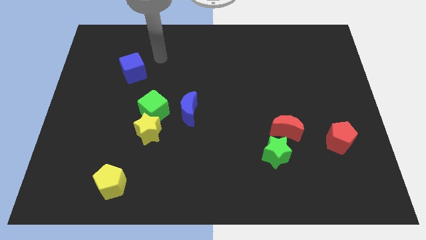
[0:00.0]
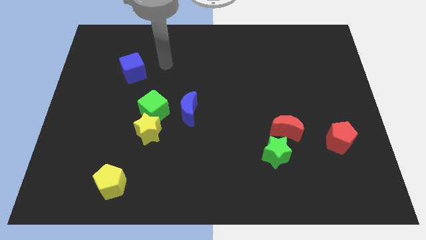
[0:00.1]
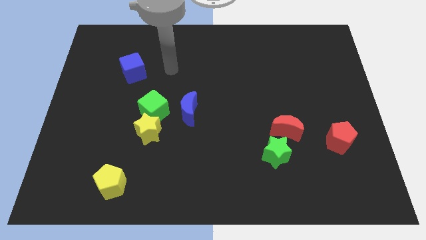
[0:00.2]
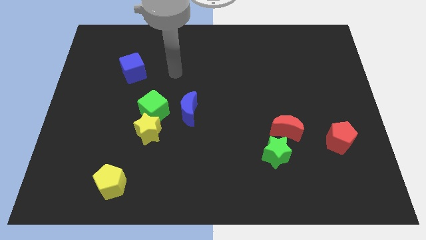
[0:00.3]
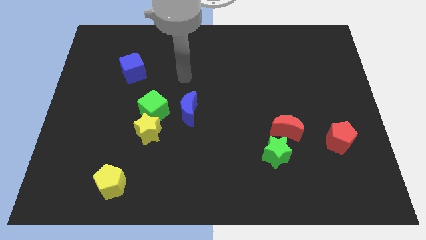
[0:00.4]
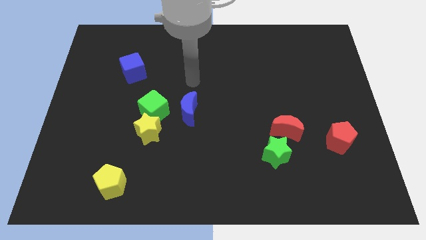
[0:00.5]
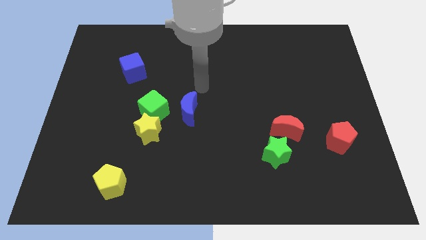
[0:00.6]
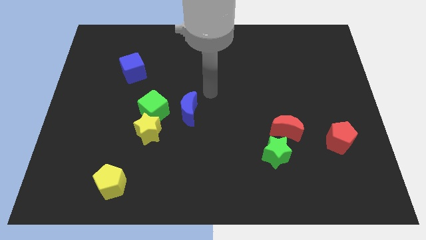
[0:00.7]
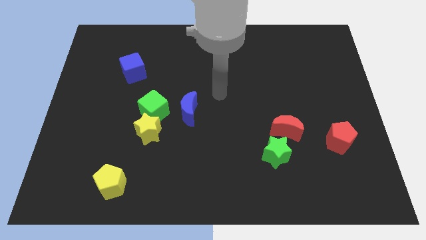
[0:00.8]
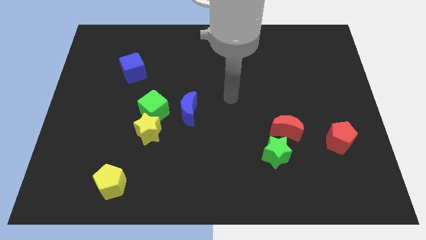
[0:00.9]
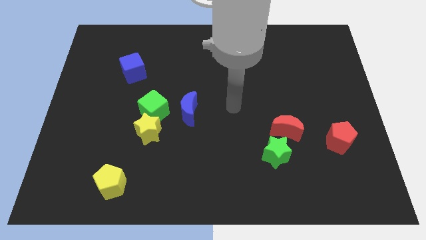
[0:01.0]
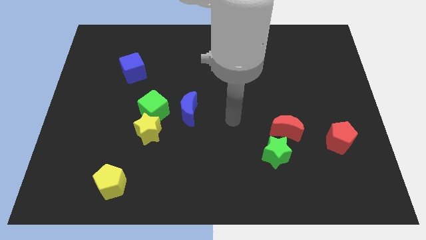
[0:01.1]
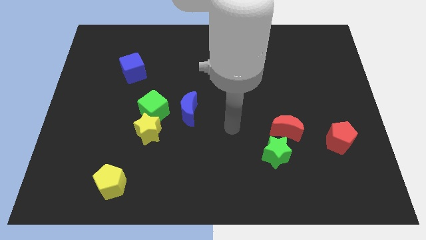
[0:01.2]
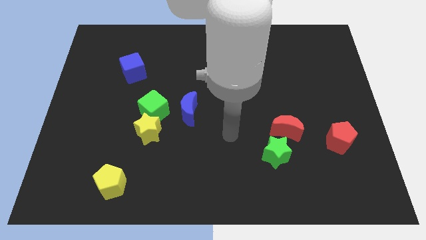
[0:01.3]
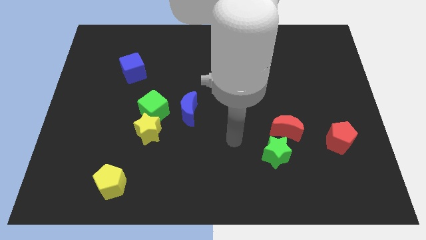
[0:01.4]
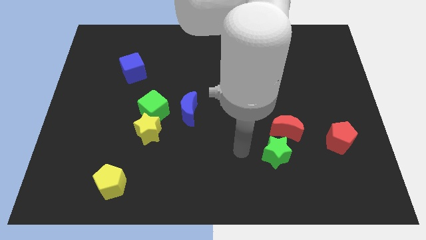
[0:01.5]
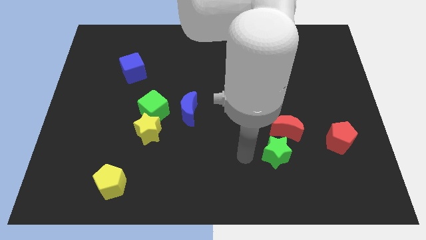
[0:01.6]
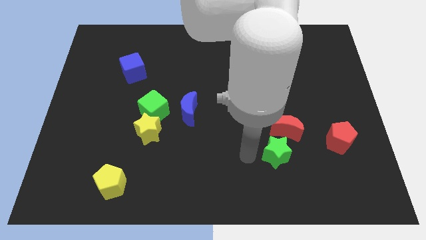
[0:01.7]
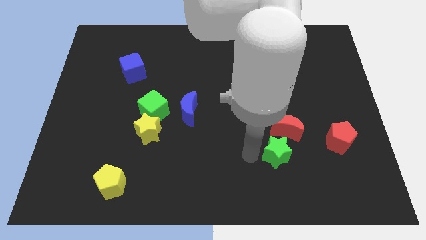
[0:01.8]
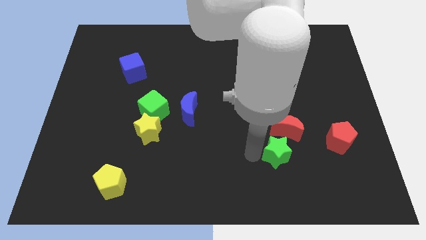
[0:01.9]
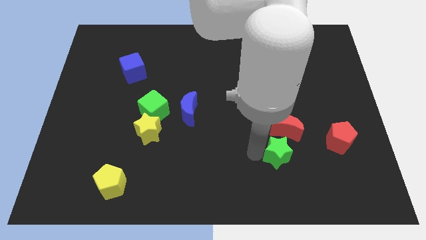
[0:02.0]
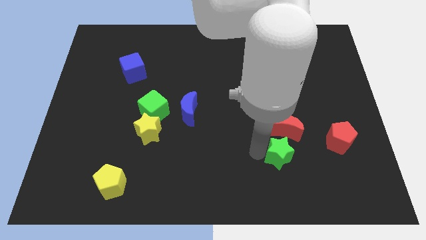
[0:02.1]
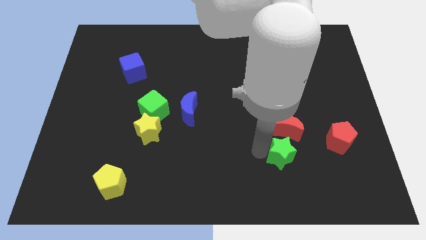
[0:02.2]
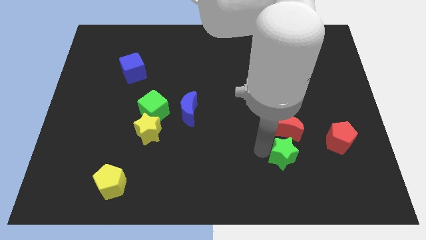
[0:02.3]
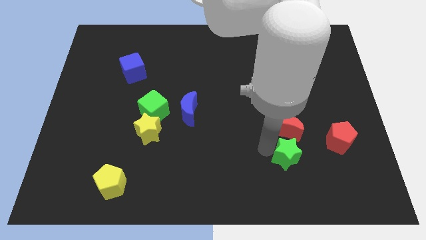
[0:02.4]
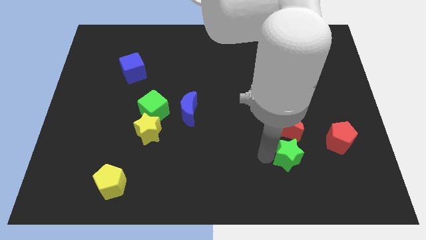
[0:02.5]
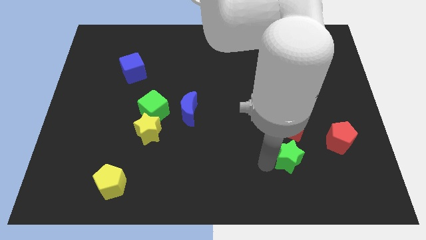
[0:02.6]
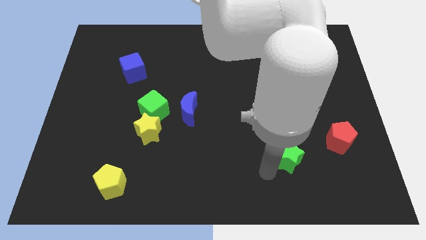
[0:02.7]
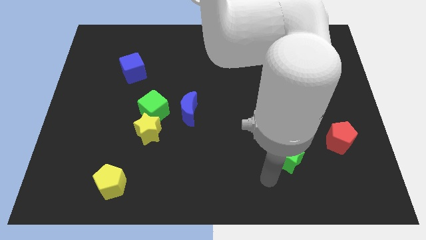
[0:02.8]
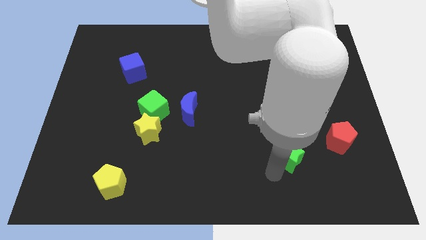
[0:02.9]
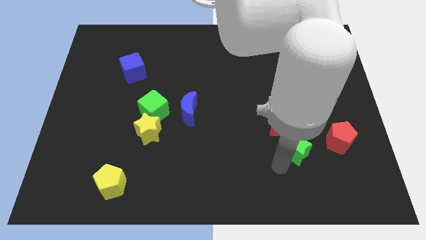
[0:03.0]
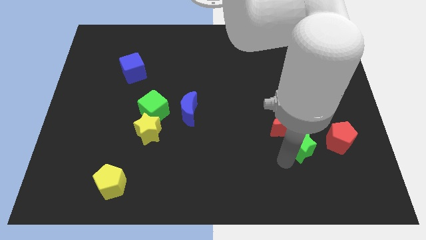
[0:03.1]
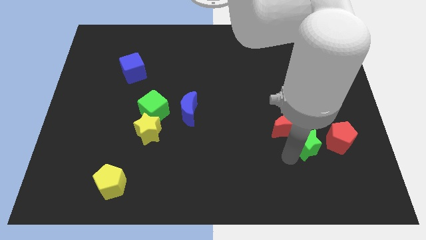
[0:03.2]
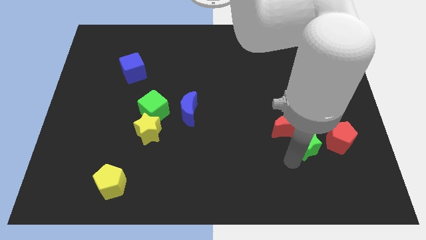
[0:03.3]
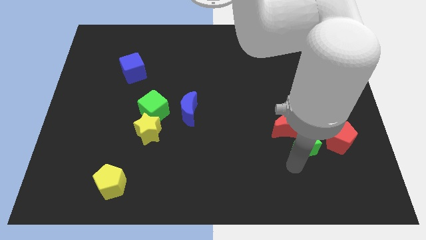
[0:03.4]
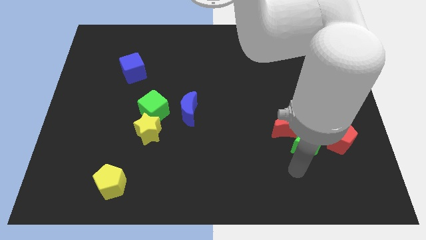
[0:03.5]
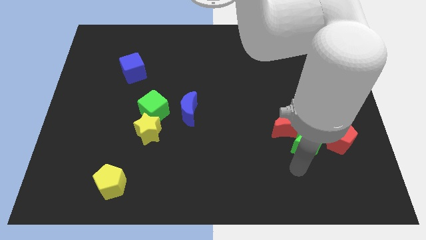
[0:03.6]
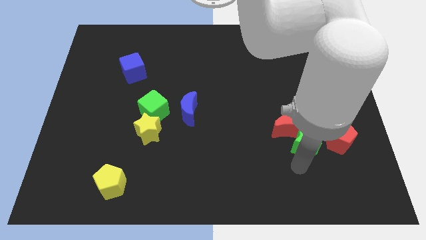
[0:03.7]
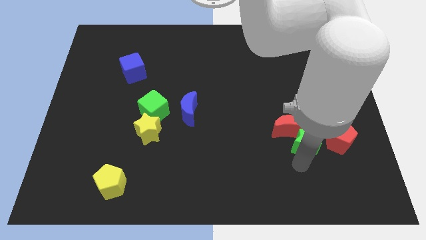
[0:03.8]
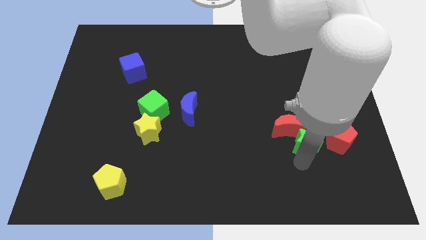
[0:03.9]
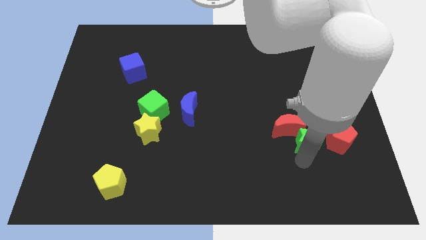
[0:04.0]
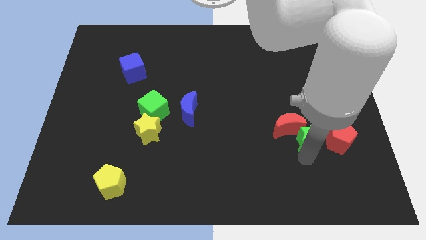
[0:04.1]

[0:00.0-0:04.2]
push the green star a little up and then right

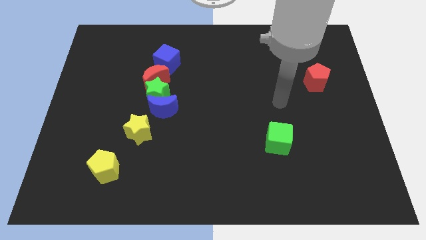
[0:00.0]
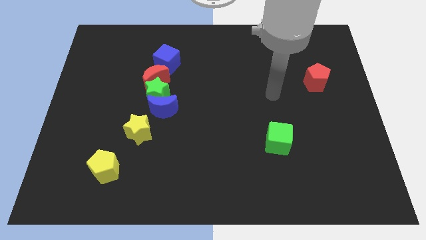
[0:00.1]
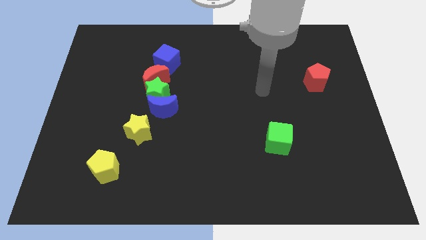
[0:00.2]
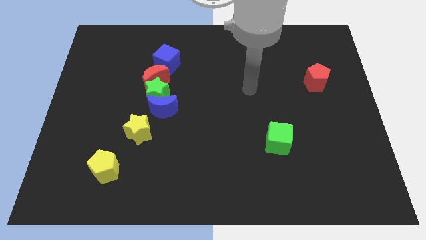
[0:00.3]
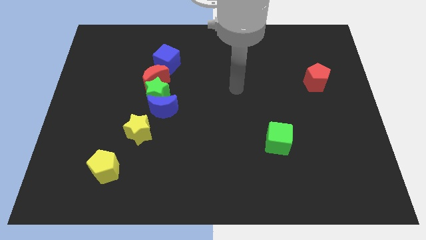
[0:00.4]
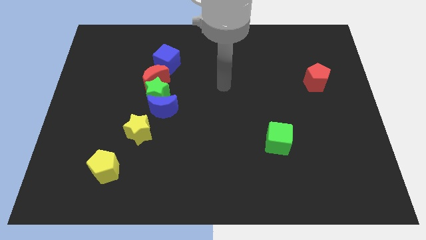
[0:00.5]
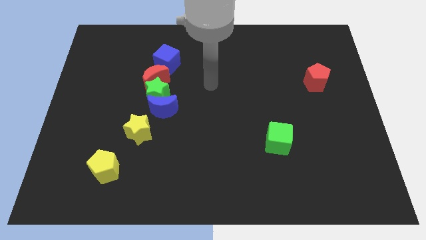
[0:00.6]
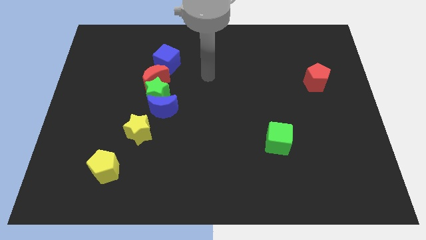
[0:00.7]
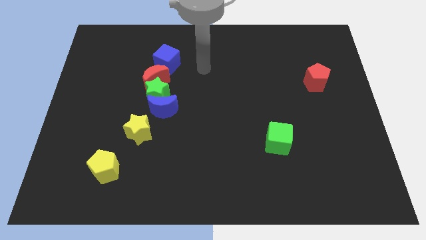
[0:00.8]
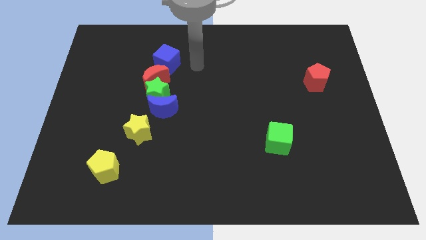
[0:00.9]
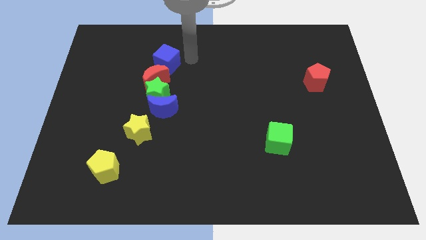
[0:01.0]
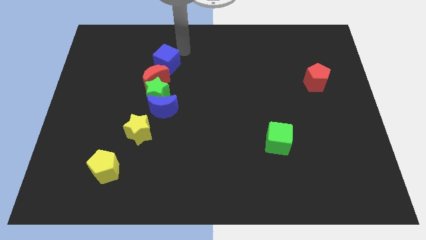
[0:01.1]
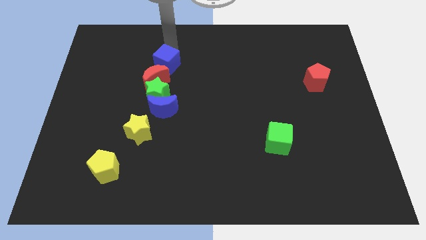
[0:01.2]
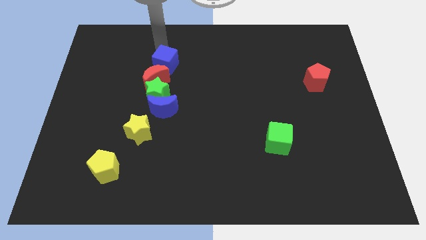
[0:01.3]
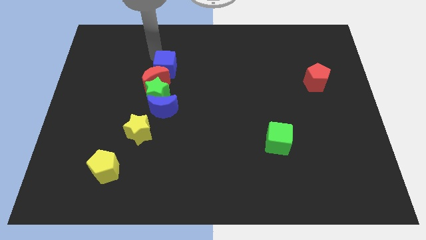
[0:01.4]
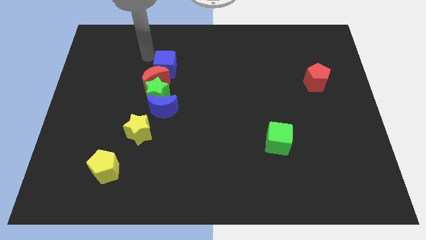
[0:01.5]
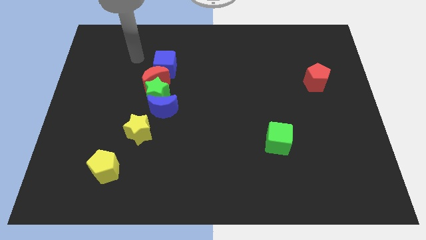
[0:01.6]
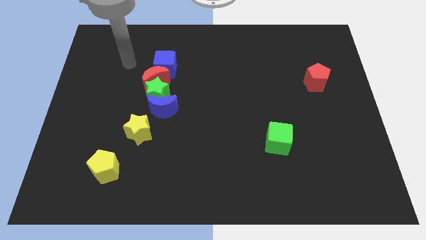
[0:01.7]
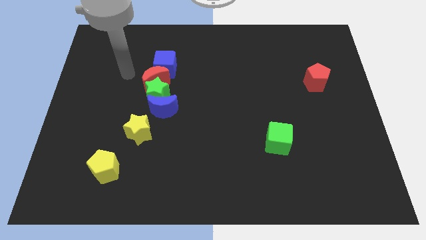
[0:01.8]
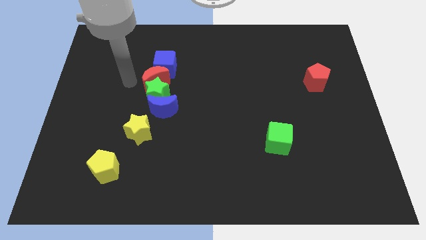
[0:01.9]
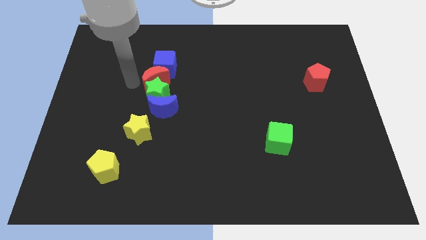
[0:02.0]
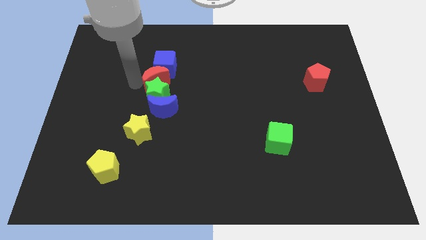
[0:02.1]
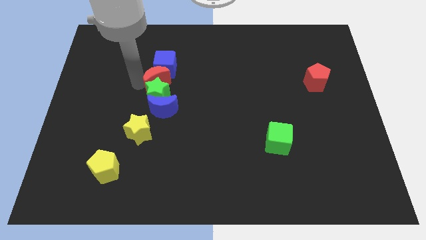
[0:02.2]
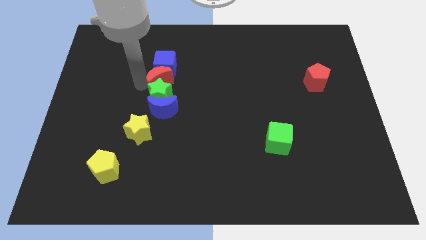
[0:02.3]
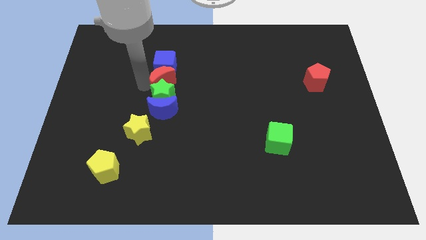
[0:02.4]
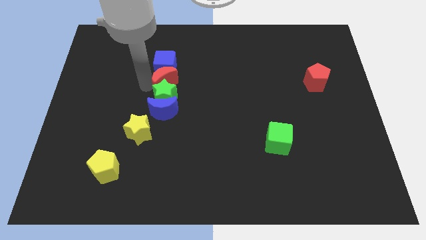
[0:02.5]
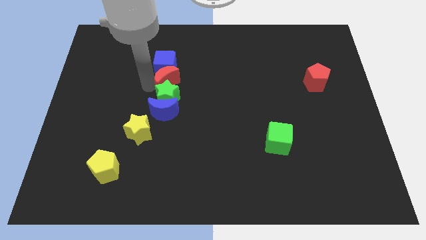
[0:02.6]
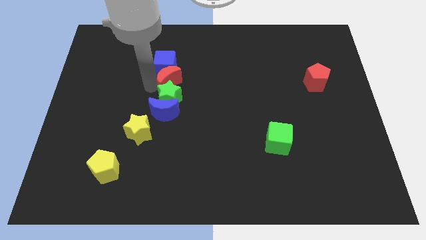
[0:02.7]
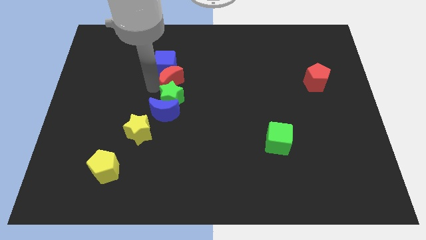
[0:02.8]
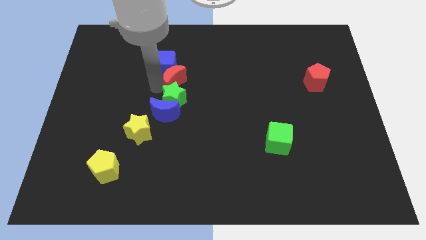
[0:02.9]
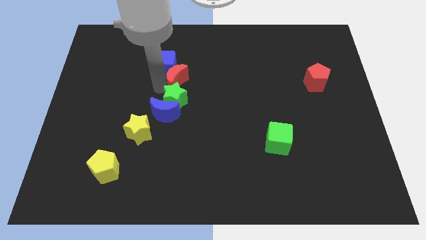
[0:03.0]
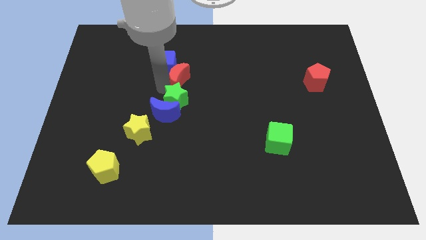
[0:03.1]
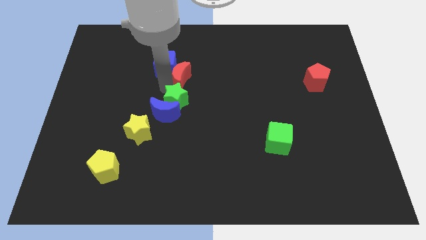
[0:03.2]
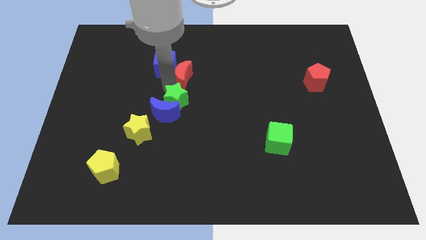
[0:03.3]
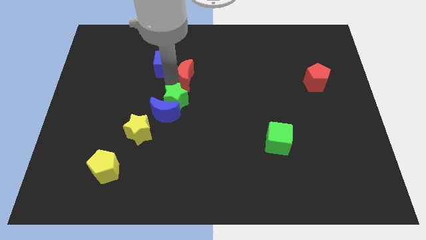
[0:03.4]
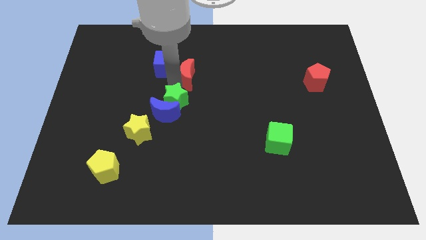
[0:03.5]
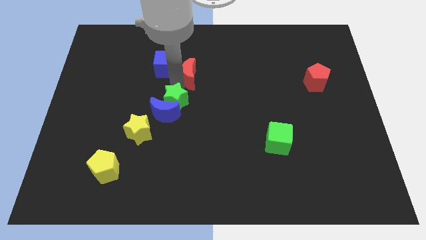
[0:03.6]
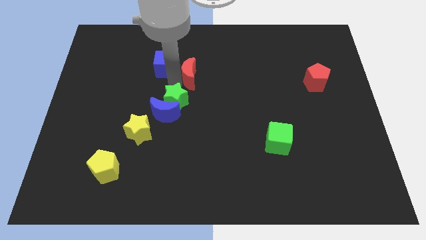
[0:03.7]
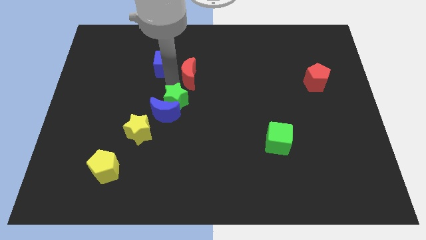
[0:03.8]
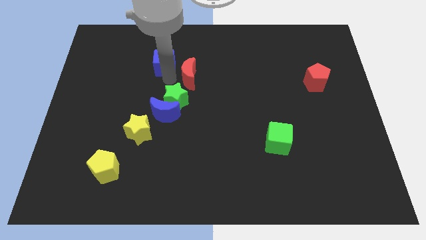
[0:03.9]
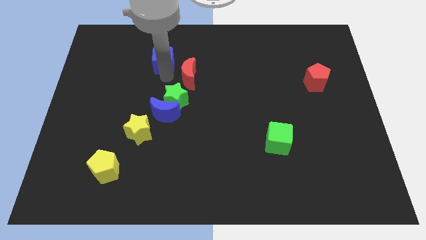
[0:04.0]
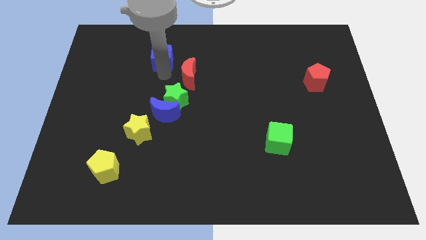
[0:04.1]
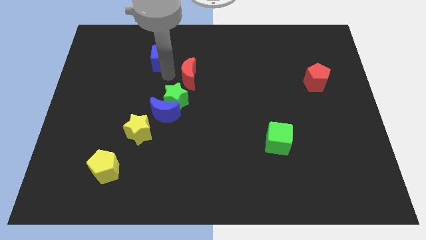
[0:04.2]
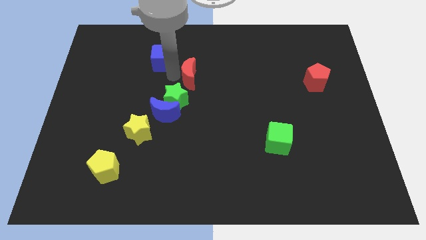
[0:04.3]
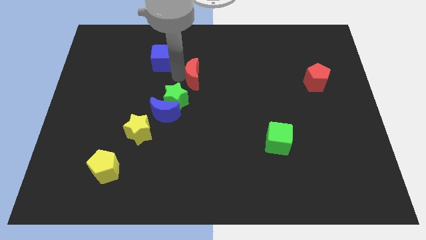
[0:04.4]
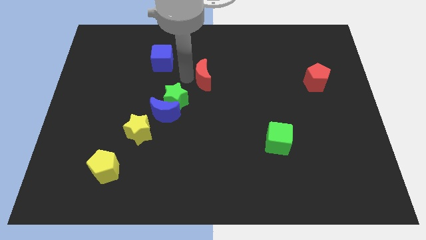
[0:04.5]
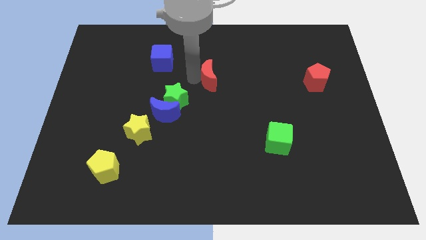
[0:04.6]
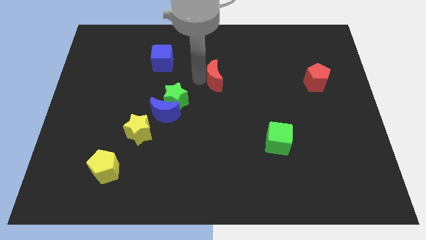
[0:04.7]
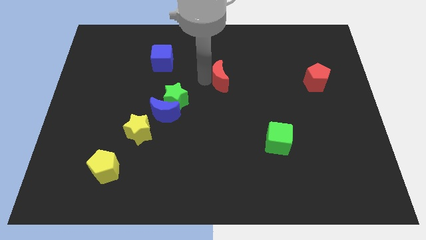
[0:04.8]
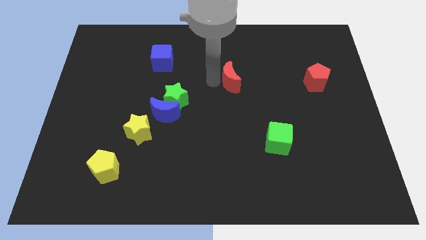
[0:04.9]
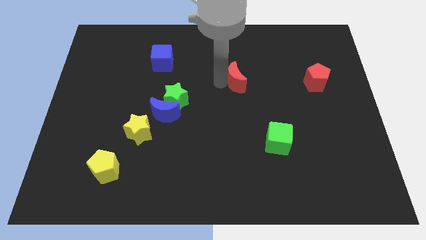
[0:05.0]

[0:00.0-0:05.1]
move the red moon to the right
